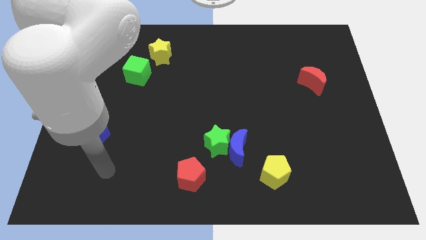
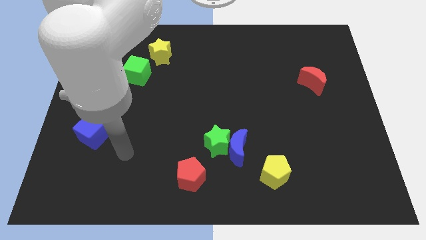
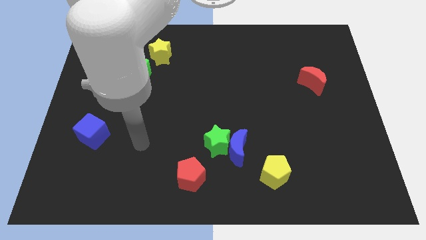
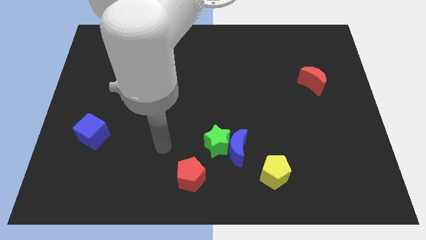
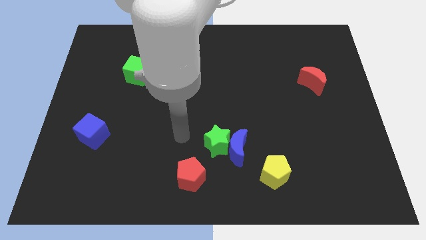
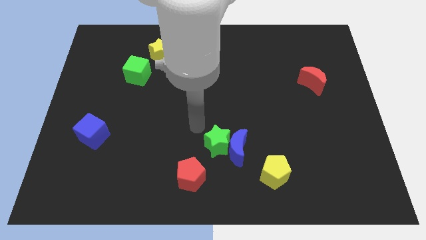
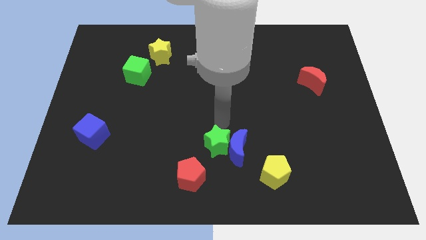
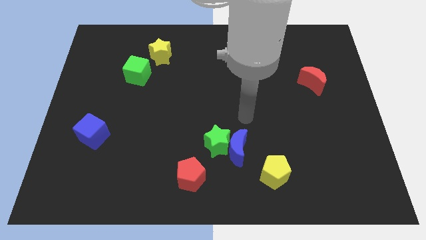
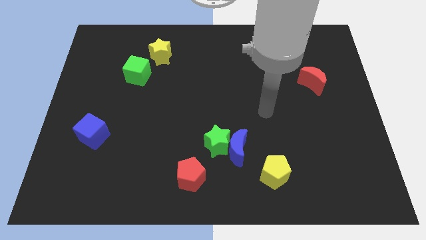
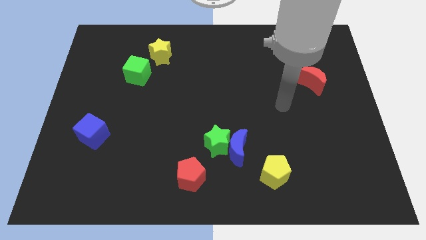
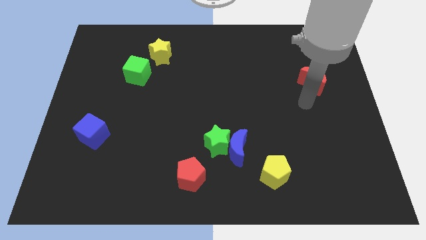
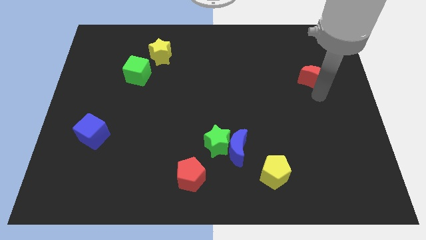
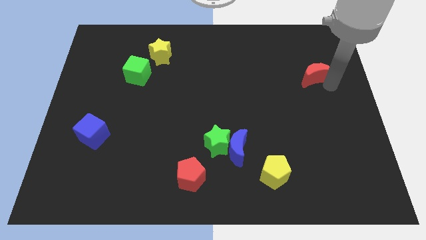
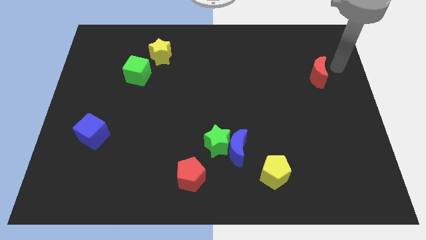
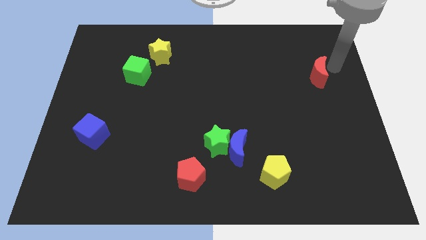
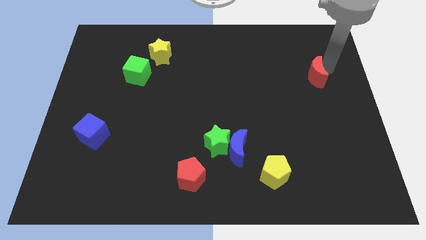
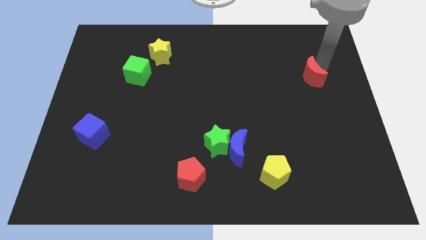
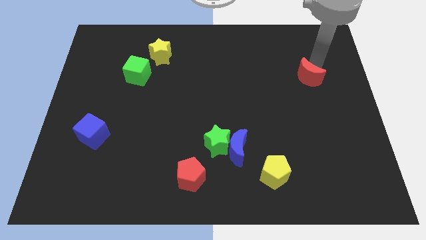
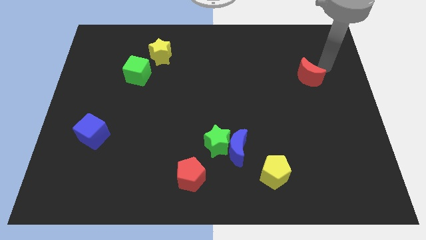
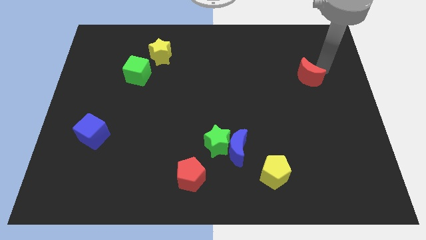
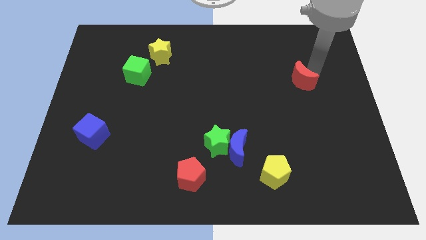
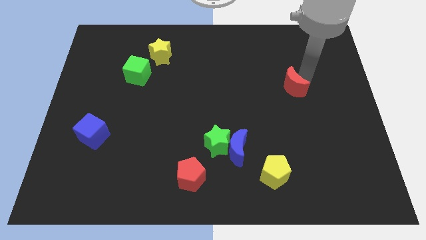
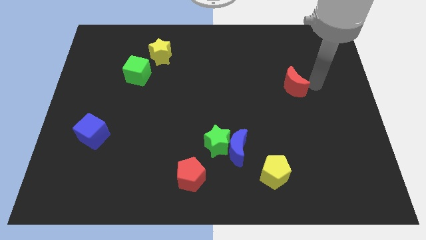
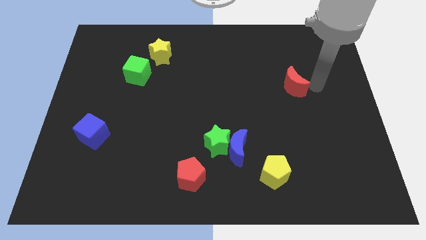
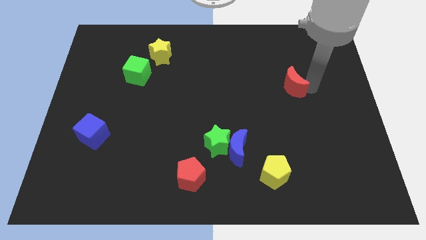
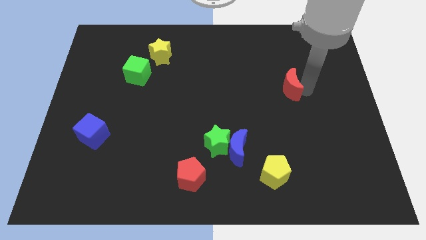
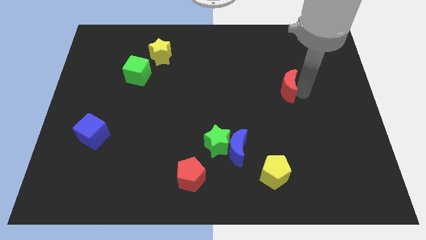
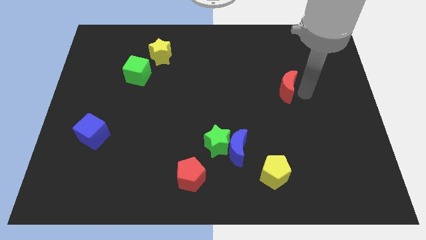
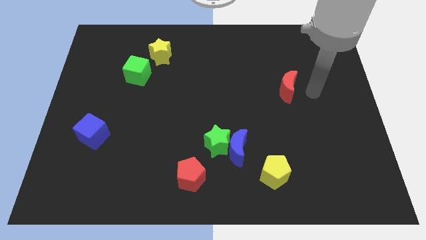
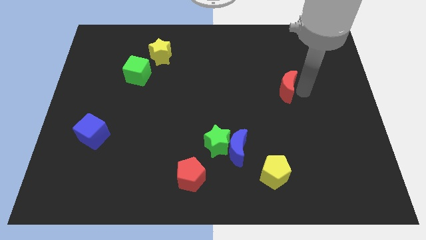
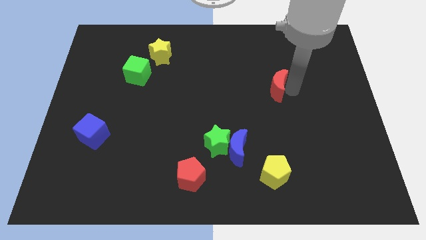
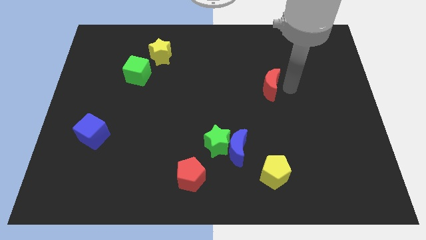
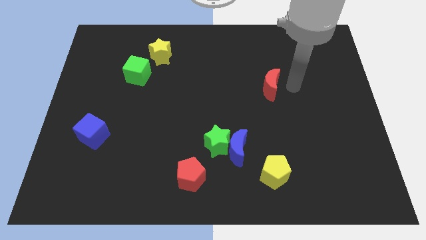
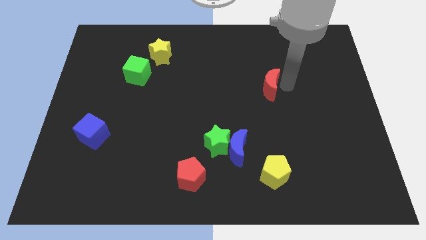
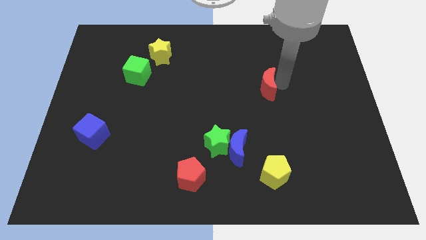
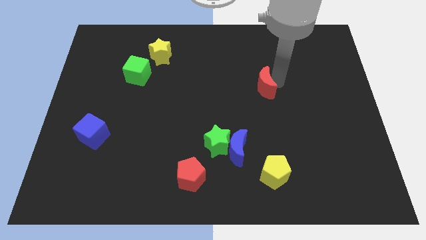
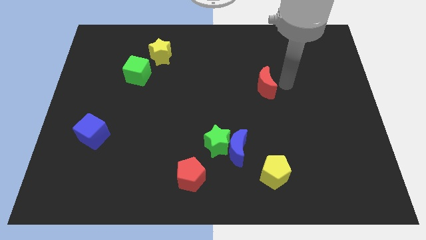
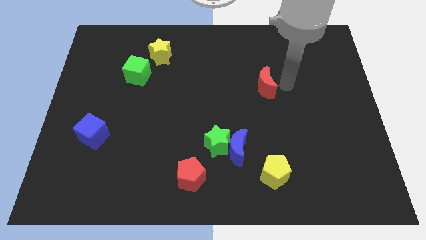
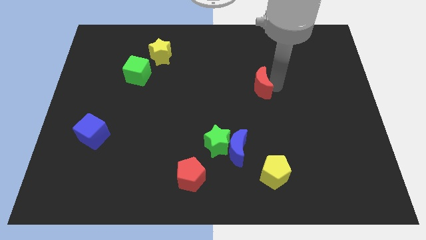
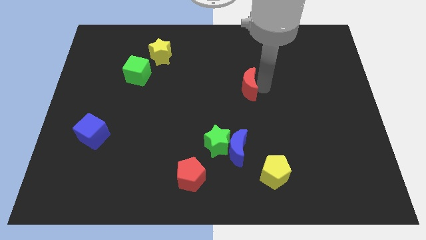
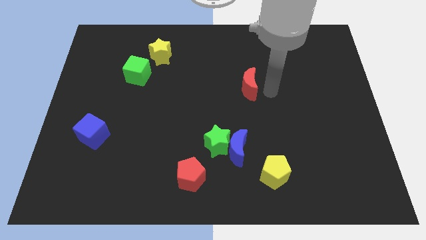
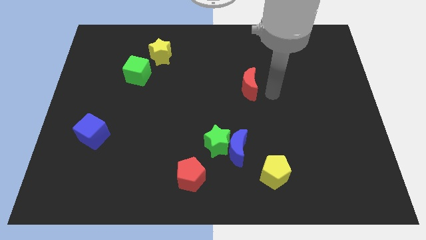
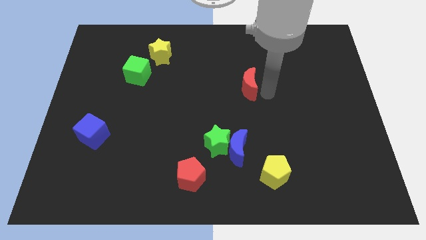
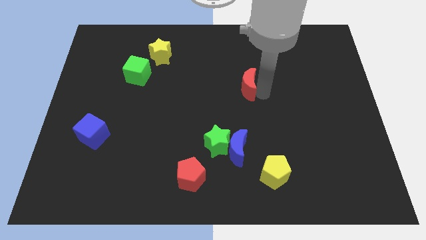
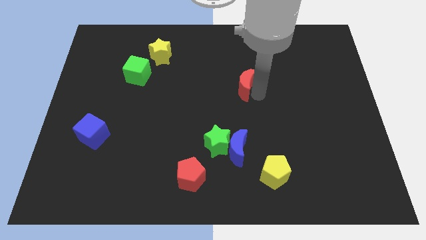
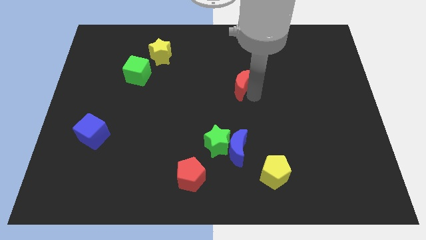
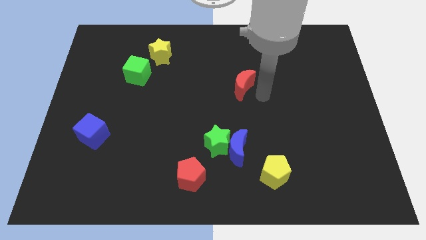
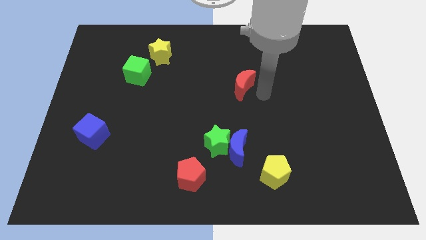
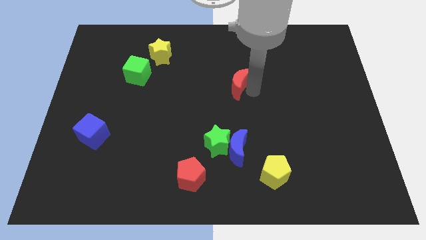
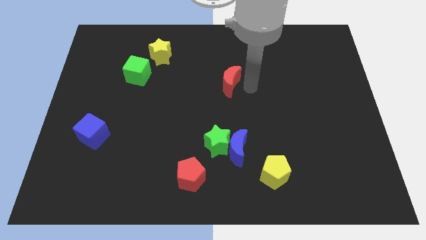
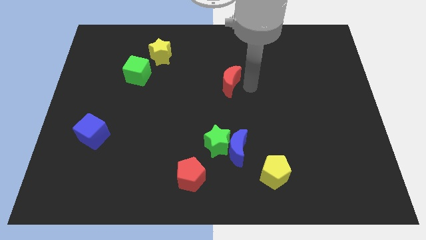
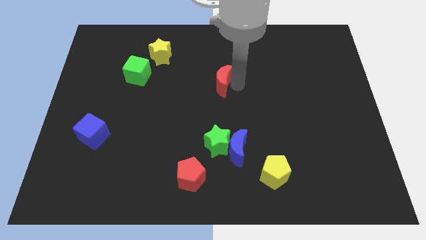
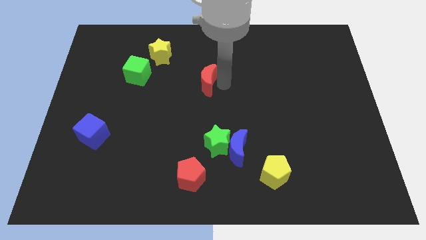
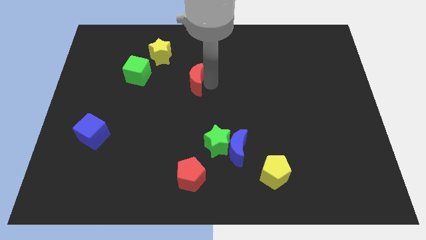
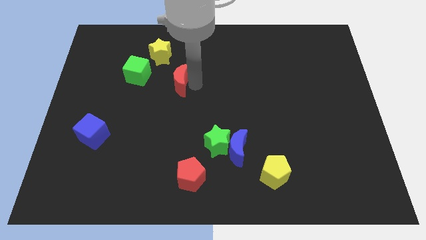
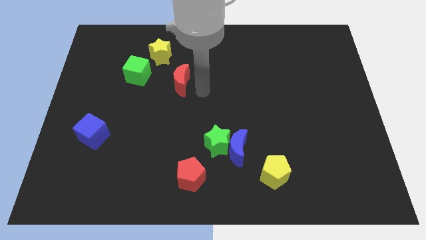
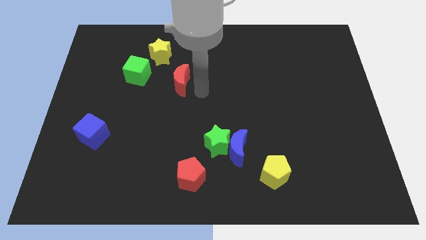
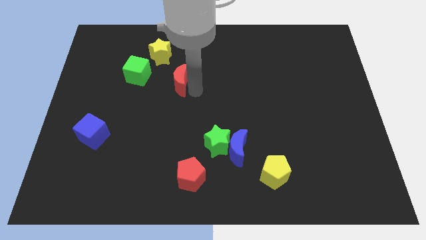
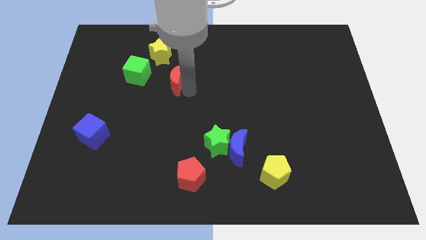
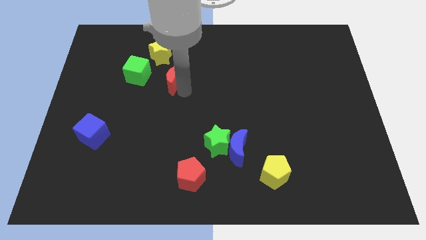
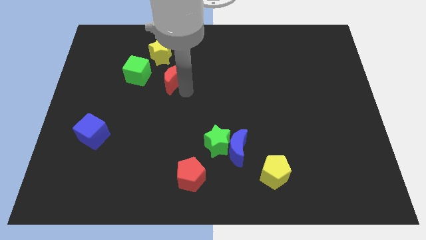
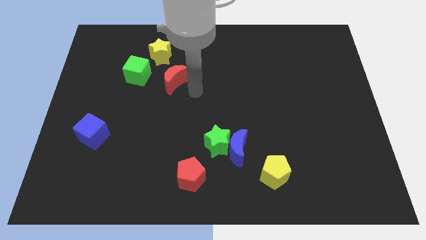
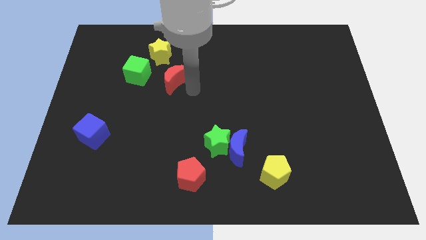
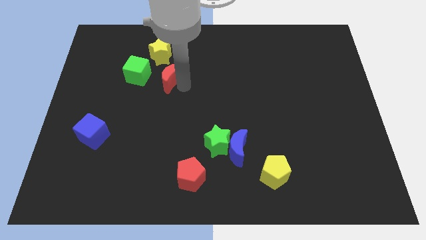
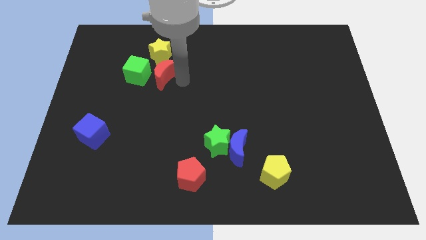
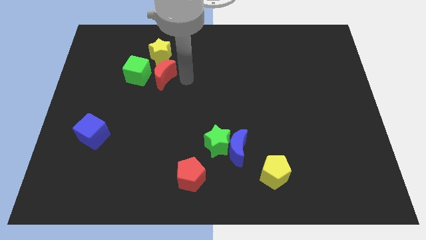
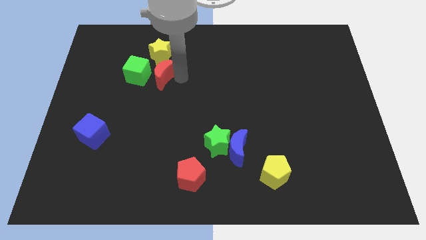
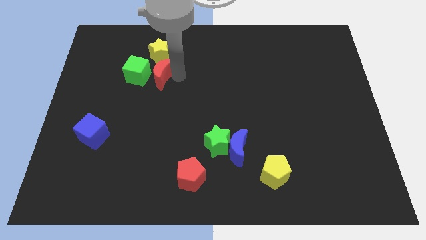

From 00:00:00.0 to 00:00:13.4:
push the red moon towards the green cube
